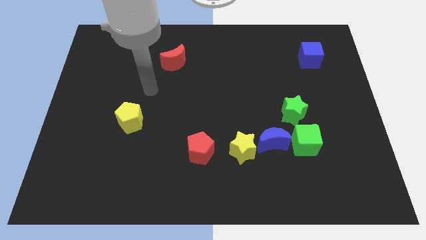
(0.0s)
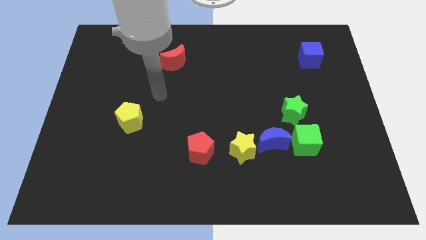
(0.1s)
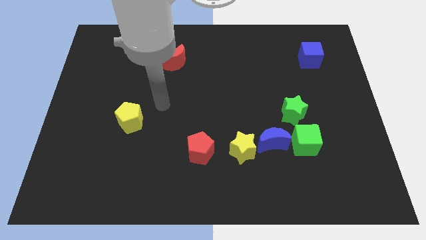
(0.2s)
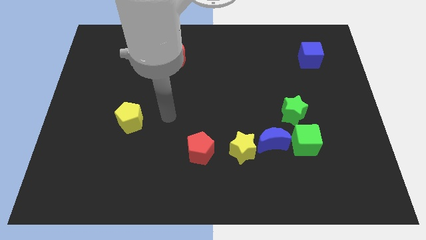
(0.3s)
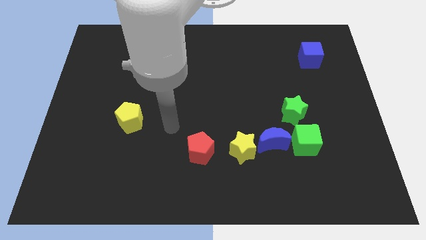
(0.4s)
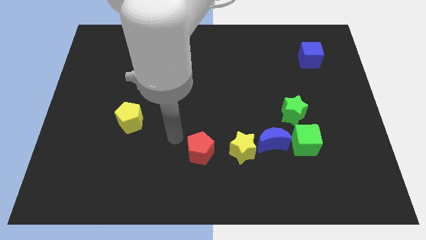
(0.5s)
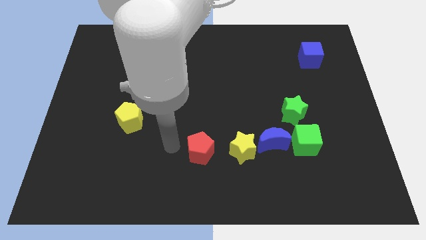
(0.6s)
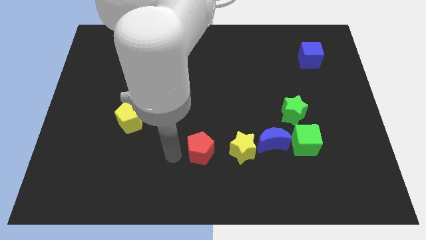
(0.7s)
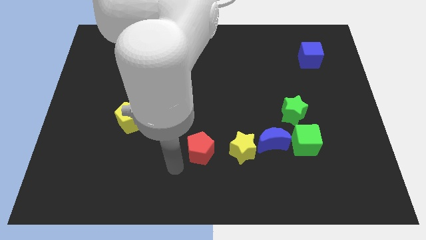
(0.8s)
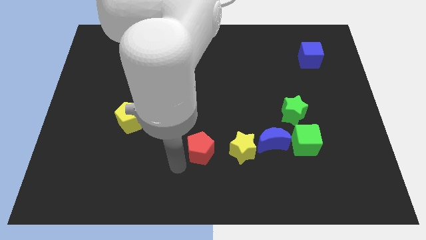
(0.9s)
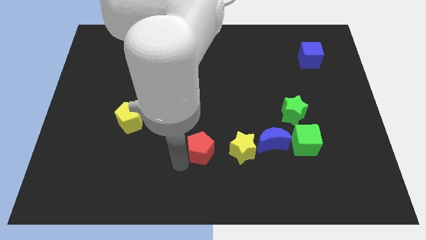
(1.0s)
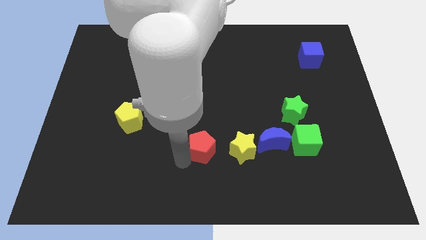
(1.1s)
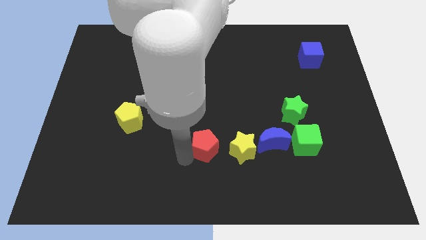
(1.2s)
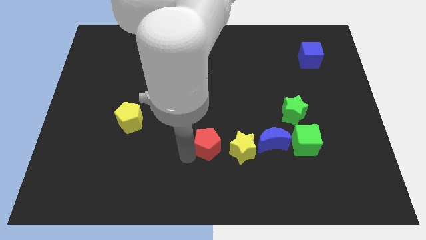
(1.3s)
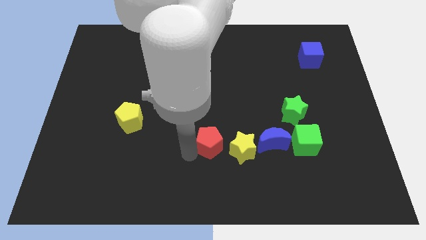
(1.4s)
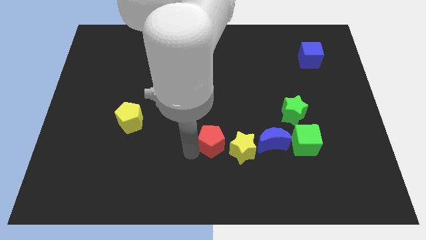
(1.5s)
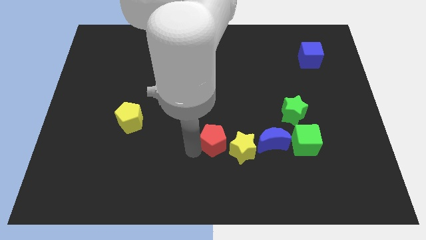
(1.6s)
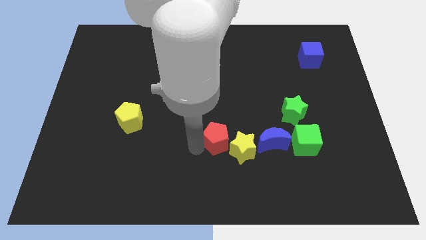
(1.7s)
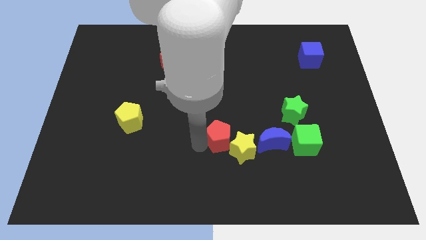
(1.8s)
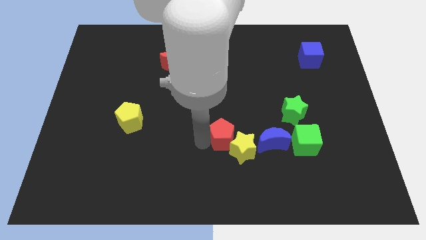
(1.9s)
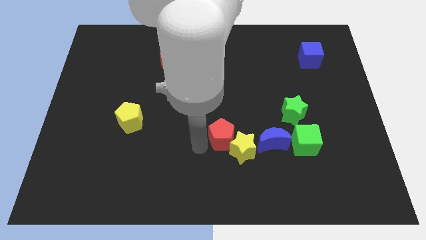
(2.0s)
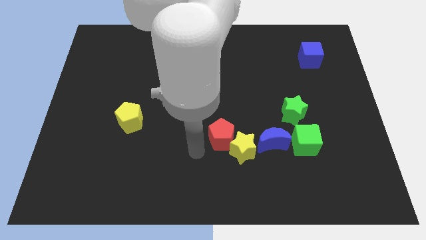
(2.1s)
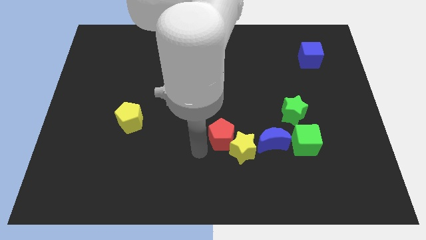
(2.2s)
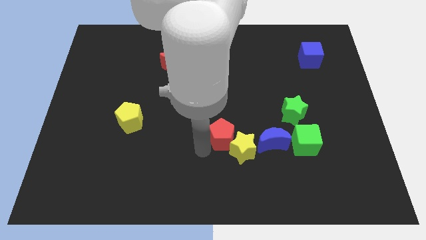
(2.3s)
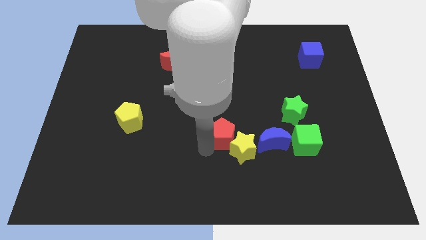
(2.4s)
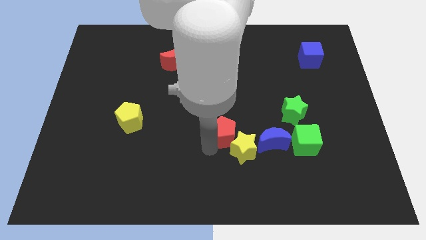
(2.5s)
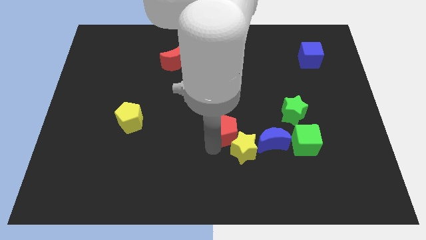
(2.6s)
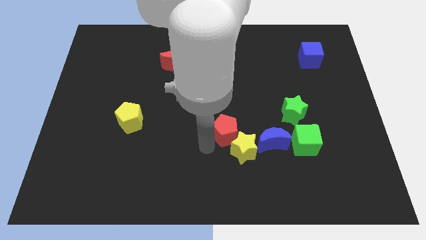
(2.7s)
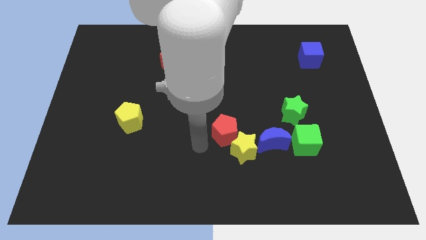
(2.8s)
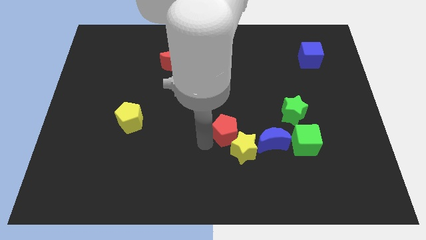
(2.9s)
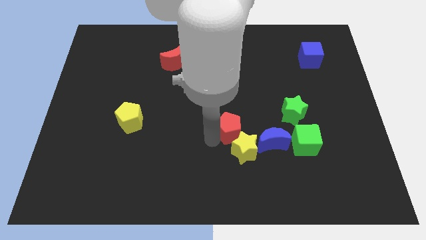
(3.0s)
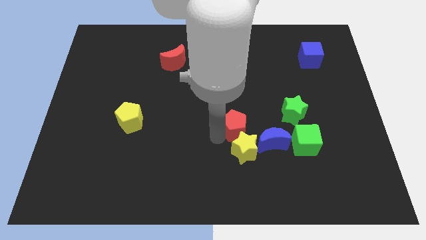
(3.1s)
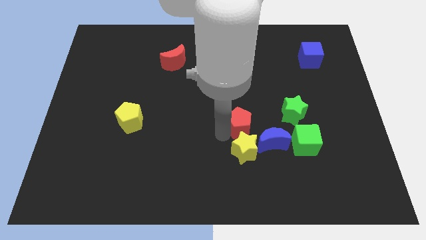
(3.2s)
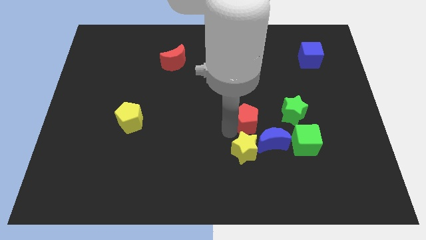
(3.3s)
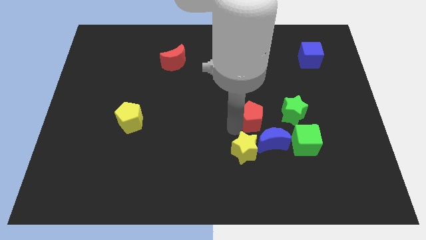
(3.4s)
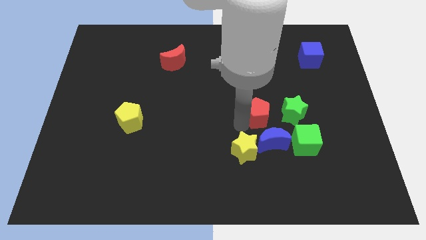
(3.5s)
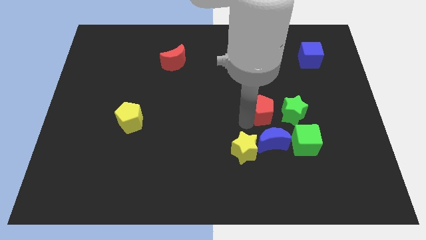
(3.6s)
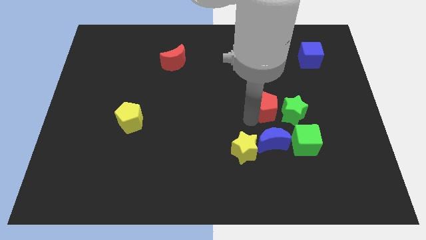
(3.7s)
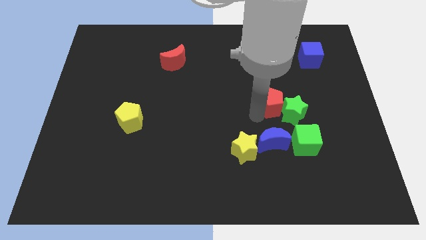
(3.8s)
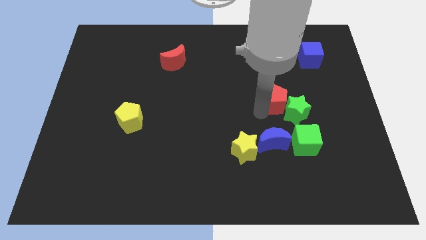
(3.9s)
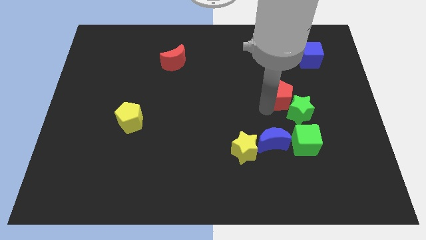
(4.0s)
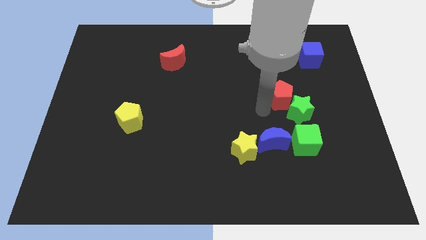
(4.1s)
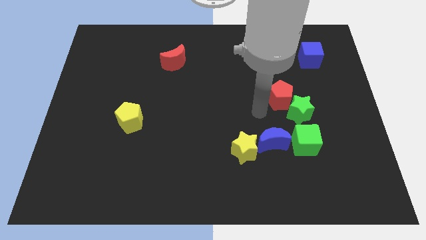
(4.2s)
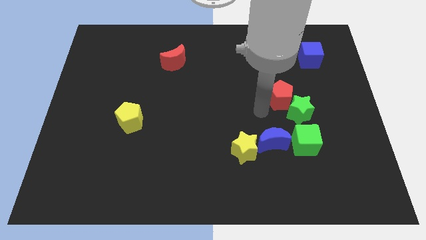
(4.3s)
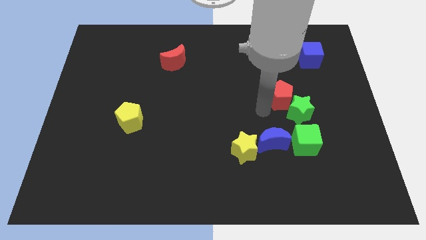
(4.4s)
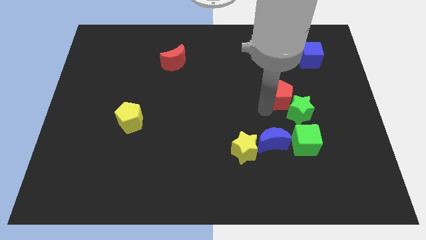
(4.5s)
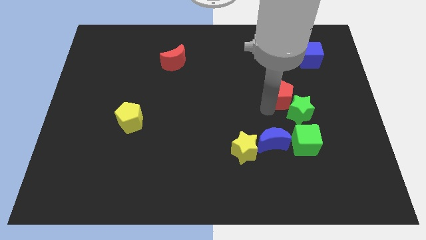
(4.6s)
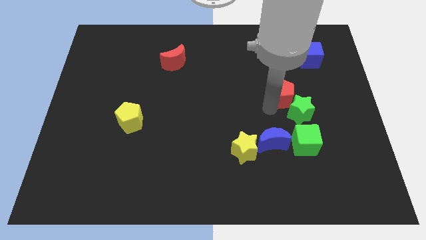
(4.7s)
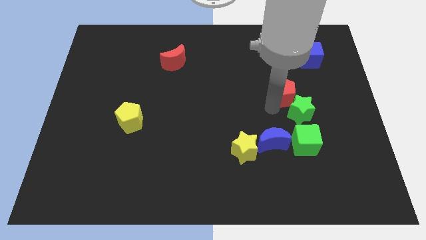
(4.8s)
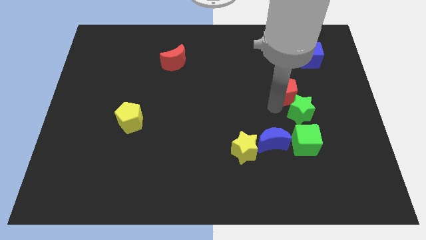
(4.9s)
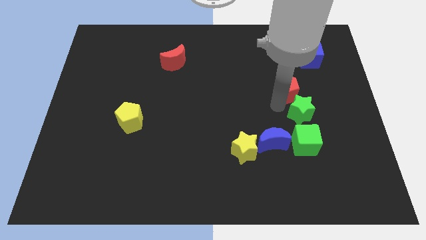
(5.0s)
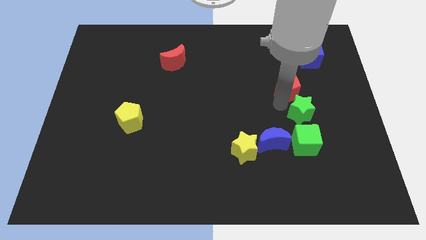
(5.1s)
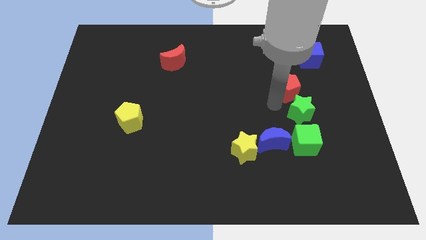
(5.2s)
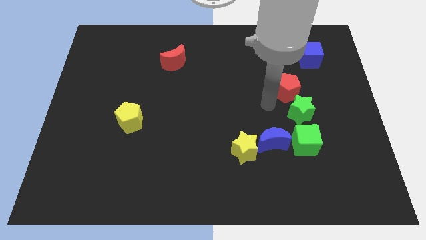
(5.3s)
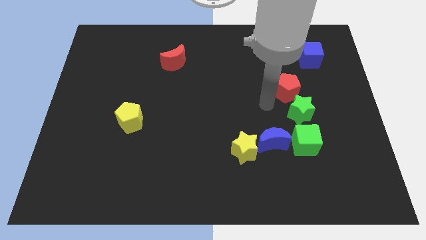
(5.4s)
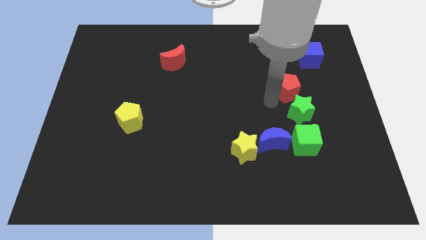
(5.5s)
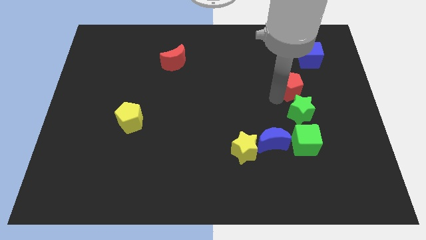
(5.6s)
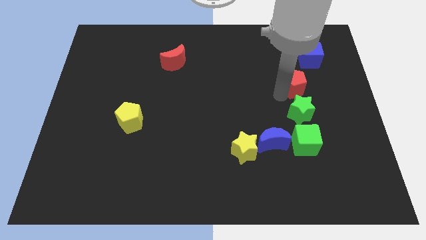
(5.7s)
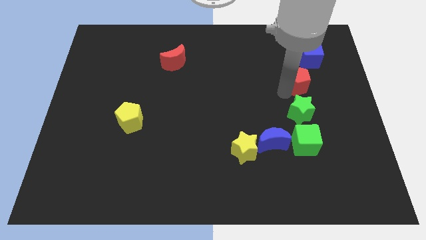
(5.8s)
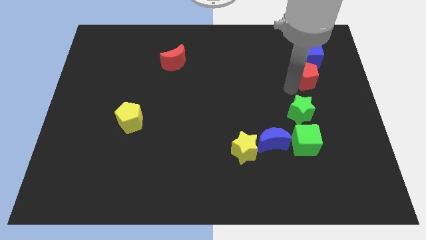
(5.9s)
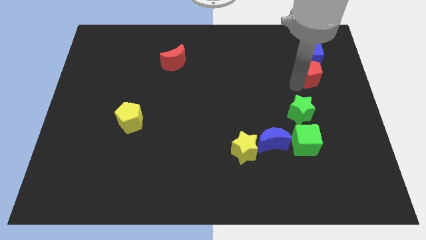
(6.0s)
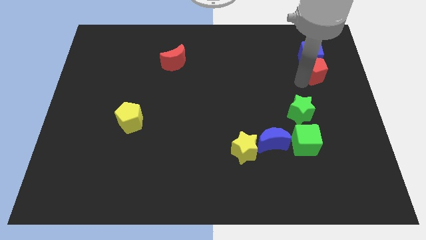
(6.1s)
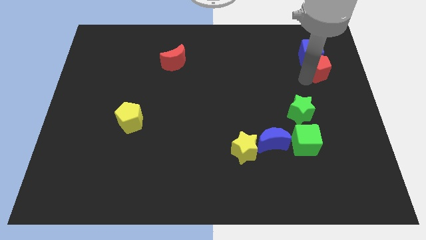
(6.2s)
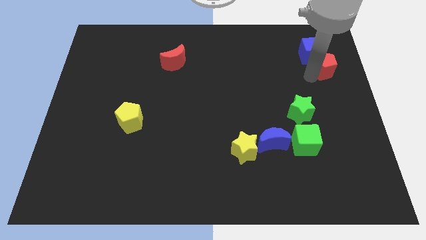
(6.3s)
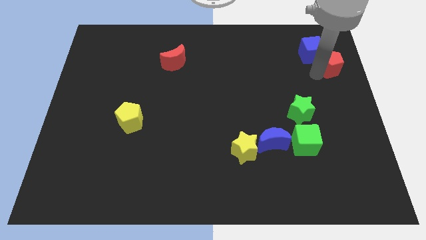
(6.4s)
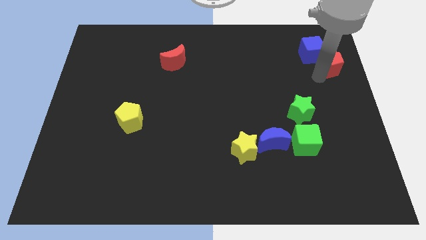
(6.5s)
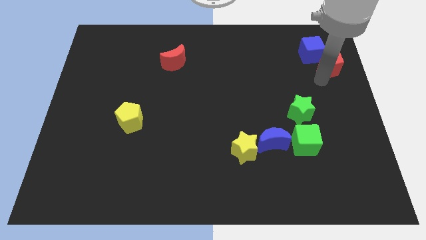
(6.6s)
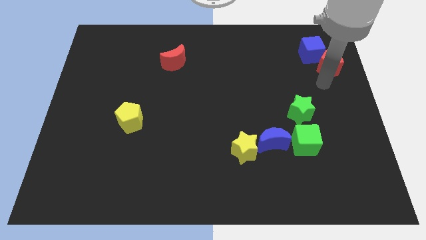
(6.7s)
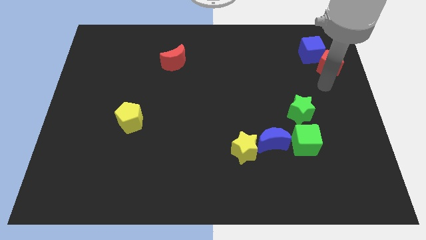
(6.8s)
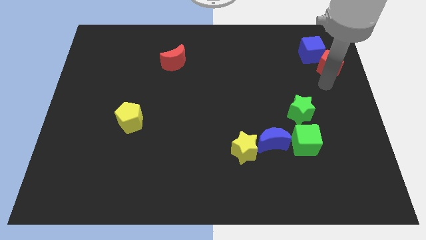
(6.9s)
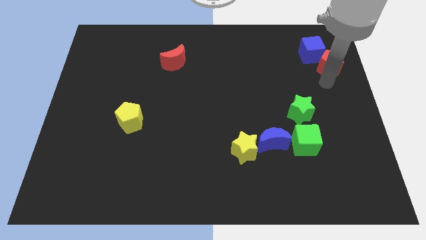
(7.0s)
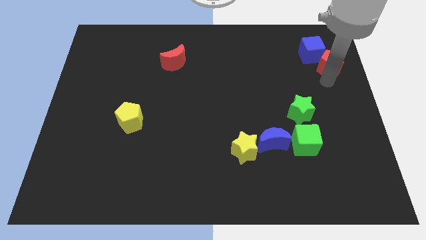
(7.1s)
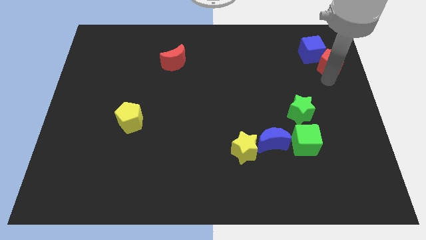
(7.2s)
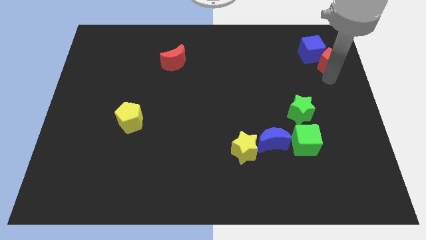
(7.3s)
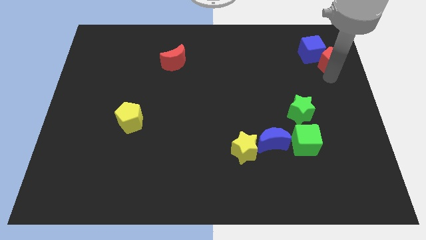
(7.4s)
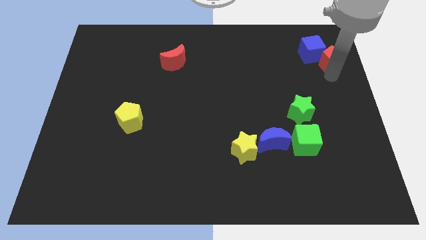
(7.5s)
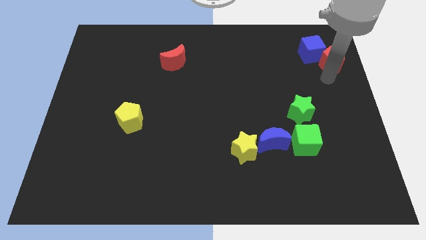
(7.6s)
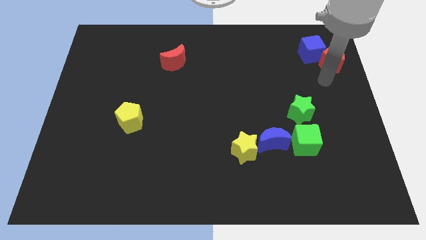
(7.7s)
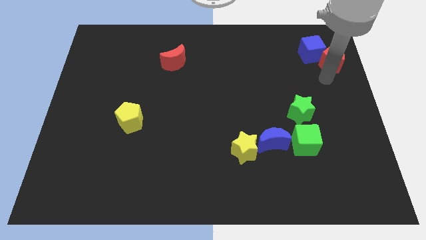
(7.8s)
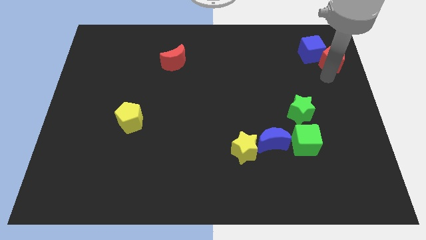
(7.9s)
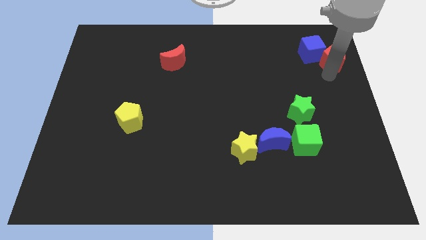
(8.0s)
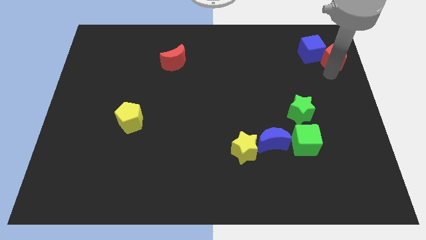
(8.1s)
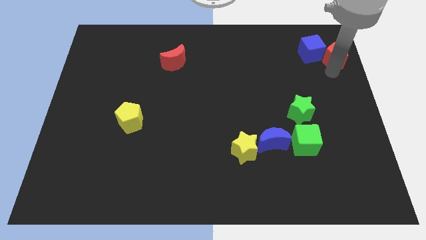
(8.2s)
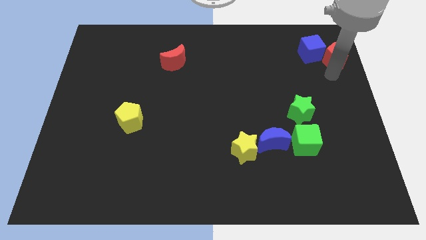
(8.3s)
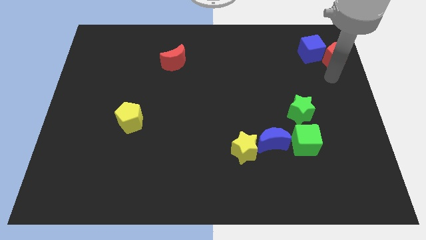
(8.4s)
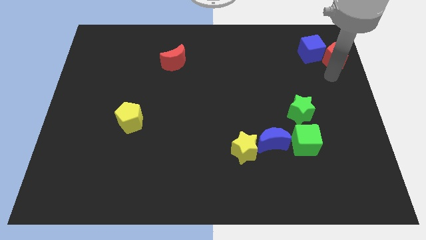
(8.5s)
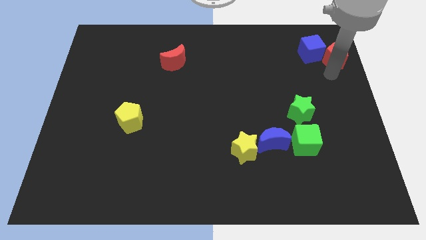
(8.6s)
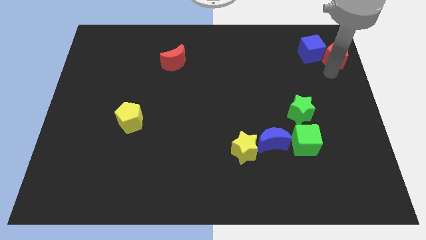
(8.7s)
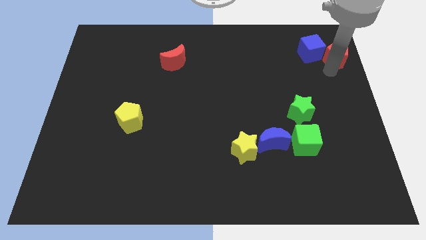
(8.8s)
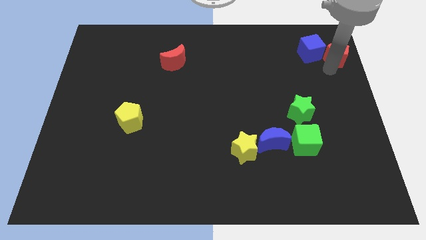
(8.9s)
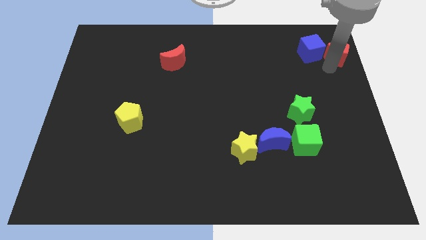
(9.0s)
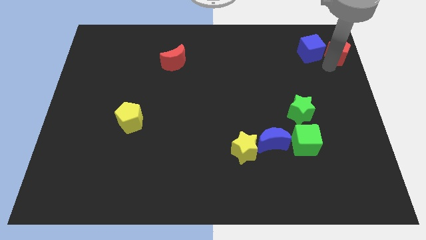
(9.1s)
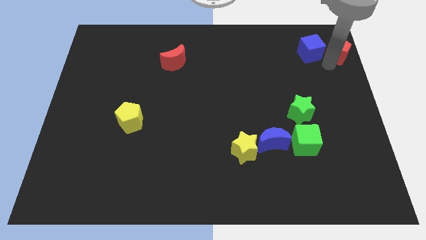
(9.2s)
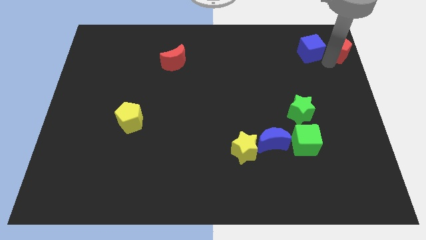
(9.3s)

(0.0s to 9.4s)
move the red pentagon to the top right corner
